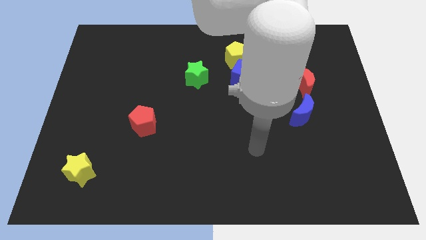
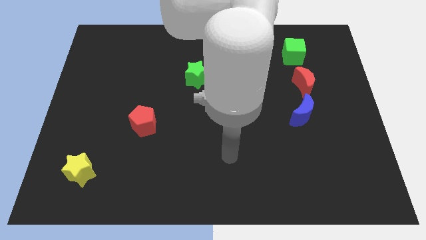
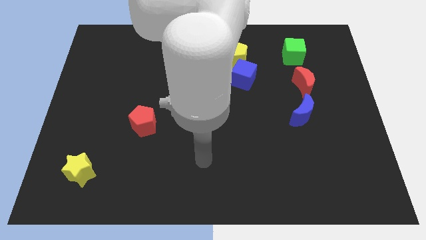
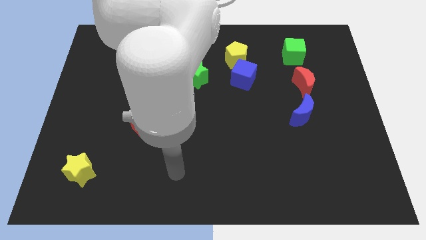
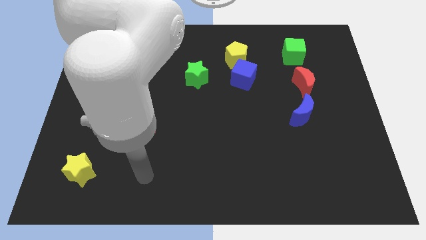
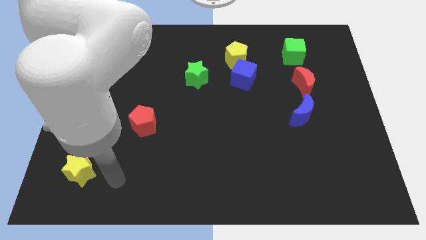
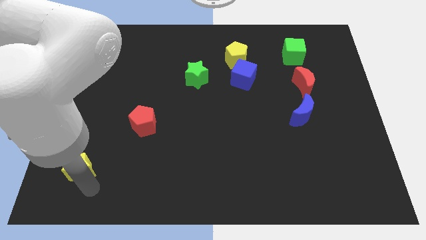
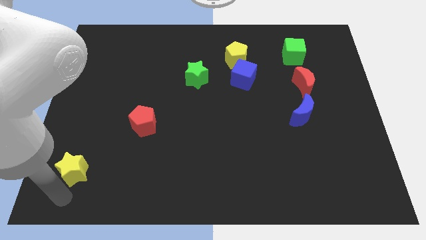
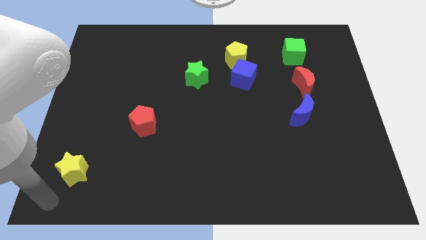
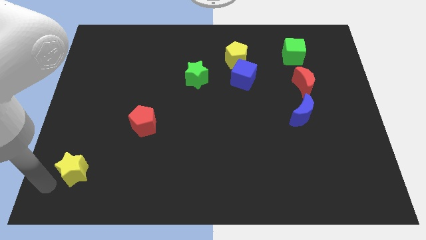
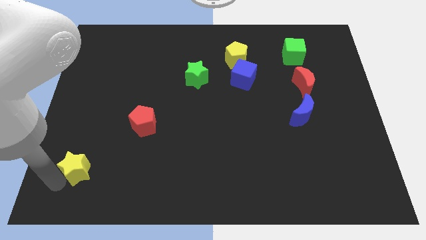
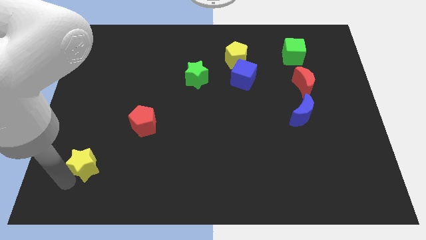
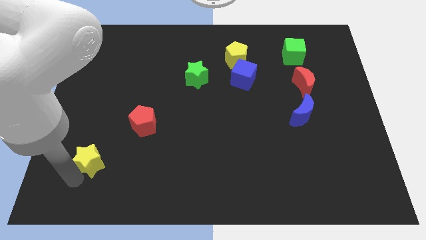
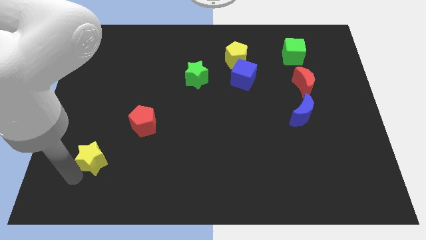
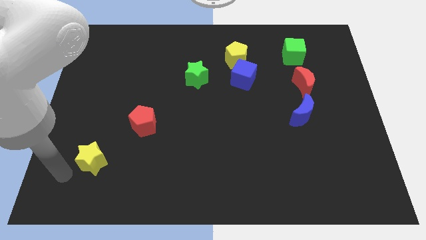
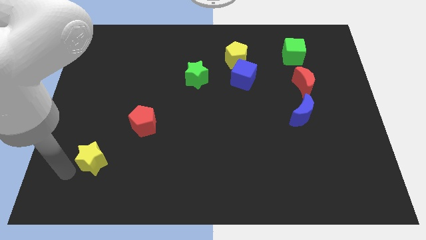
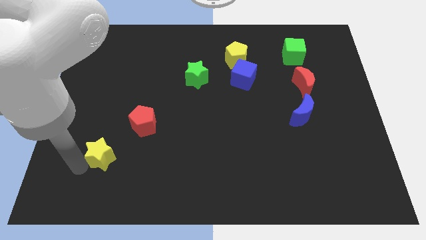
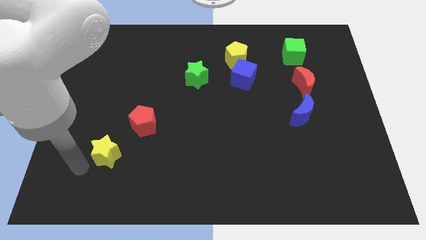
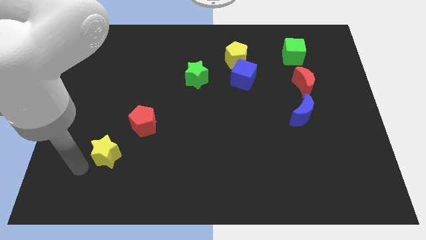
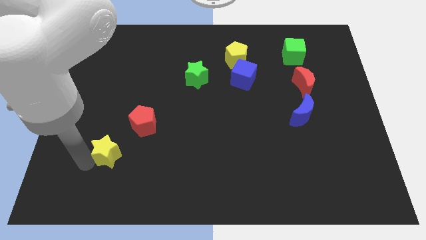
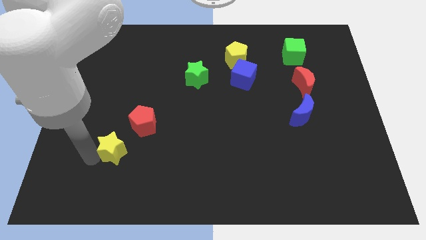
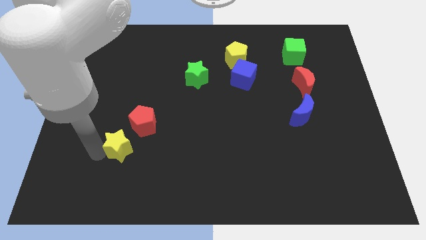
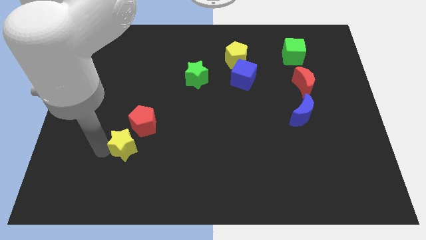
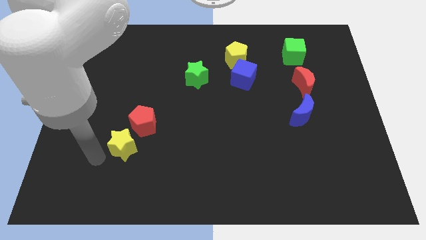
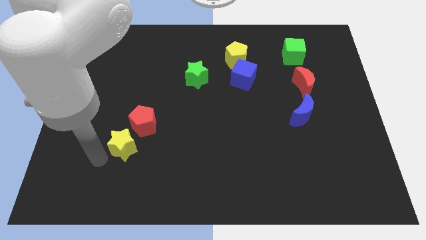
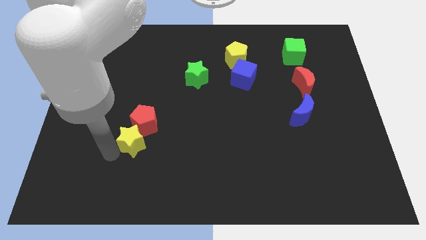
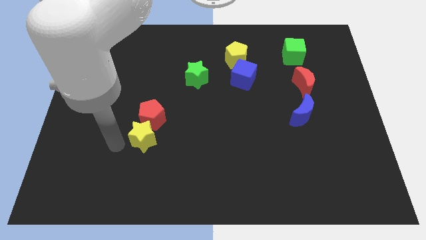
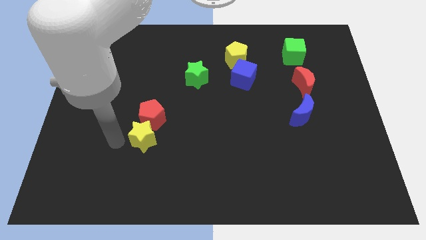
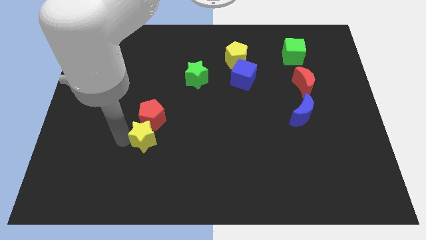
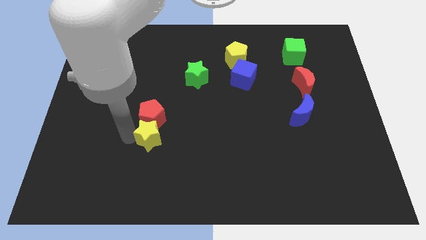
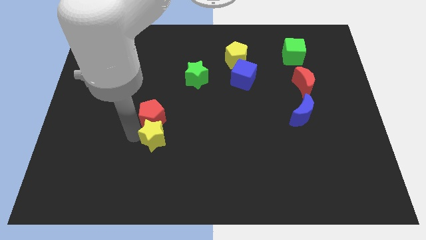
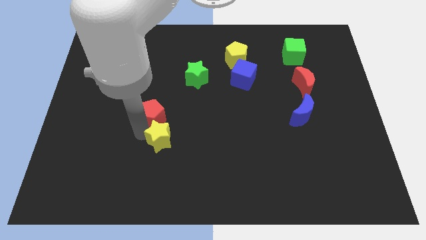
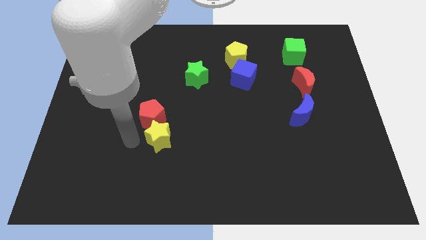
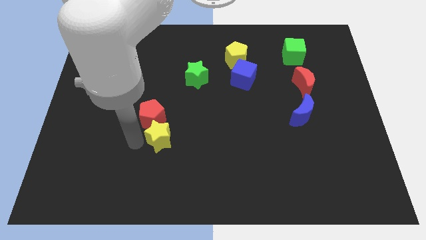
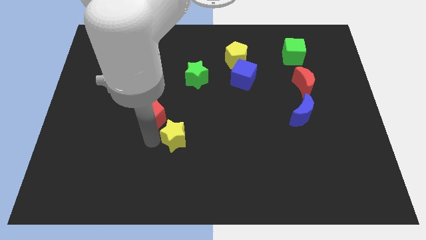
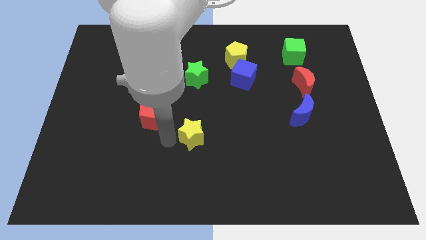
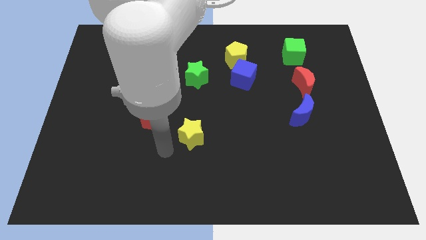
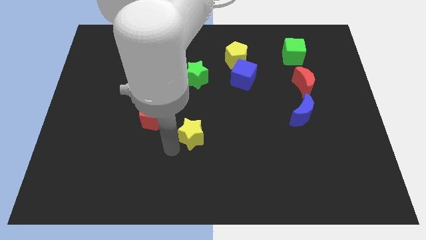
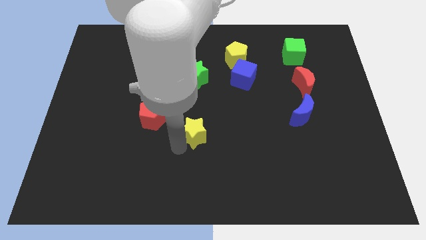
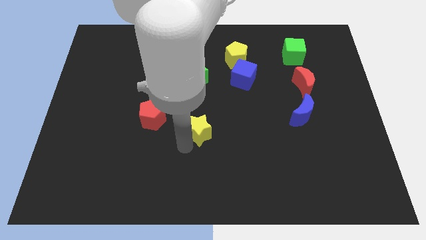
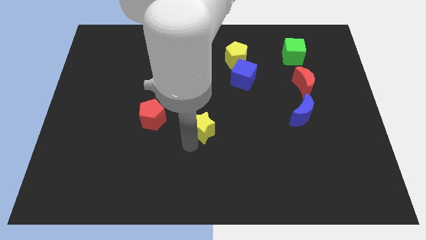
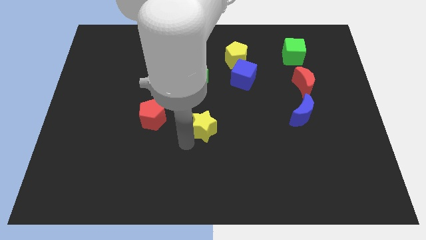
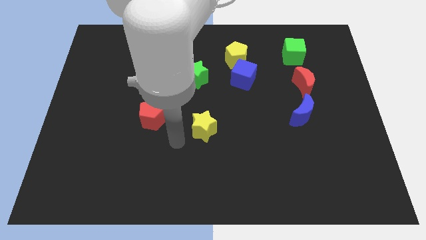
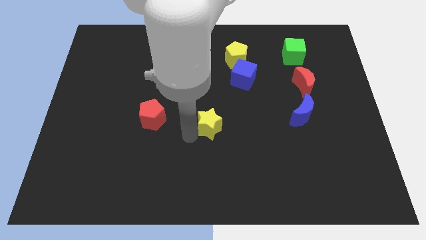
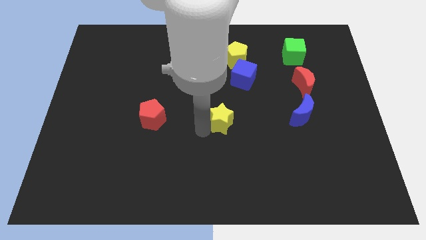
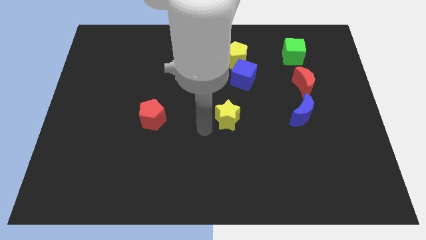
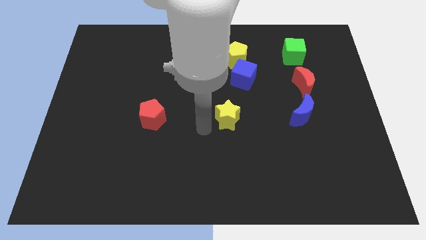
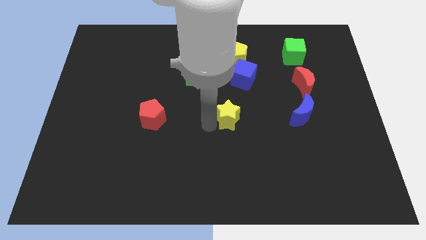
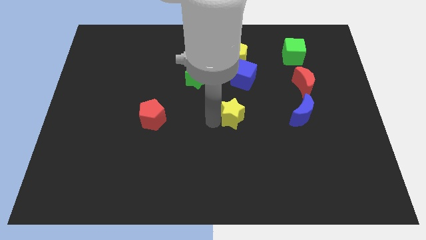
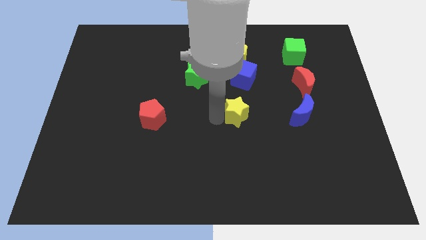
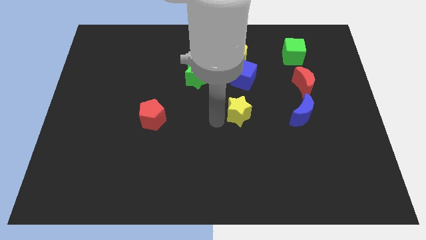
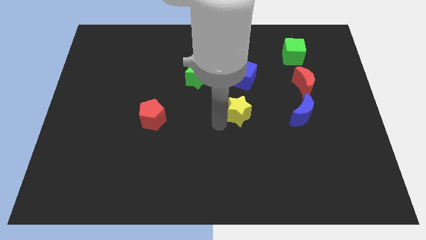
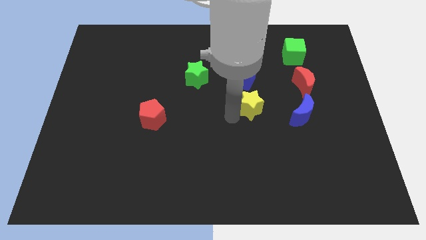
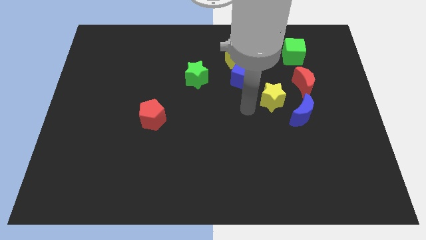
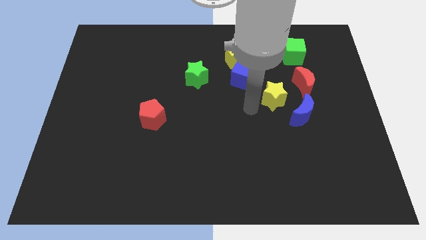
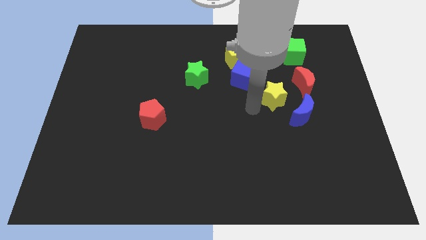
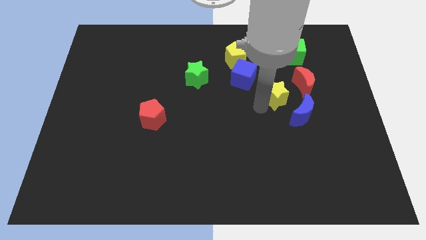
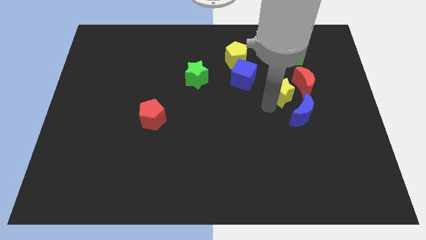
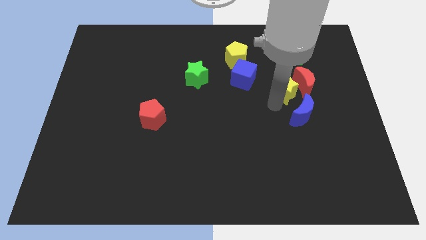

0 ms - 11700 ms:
push the yellow star to the red moon

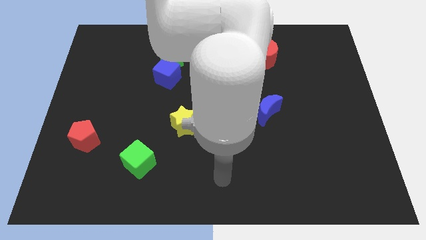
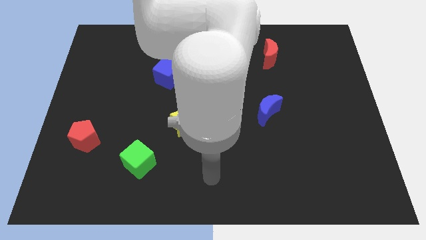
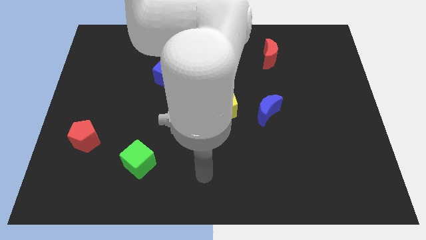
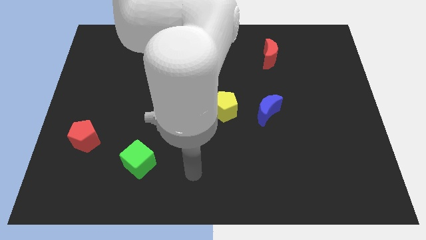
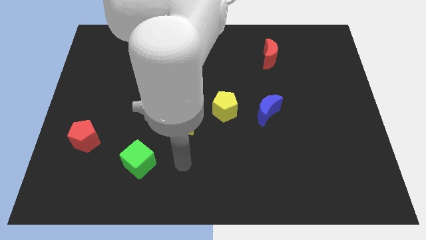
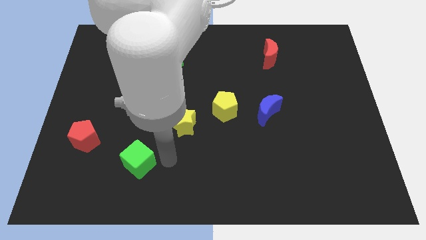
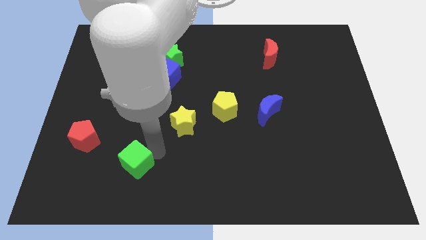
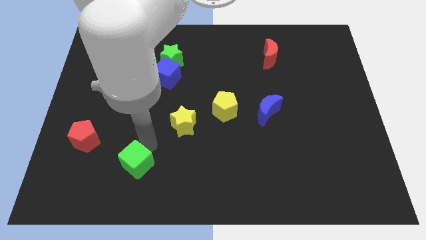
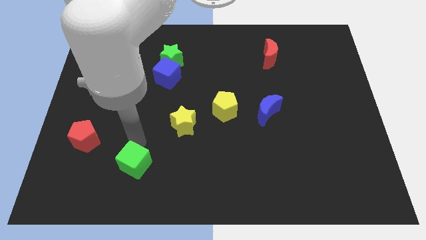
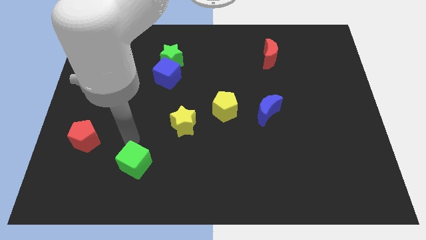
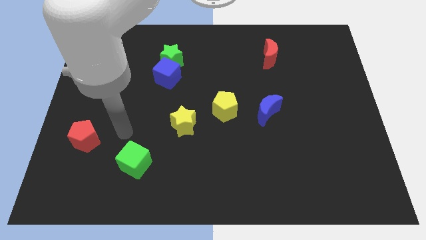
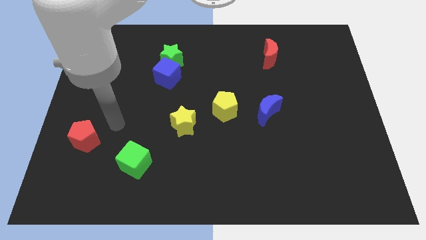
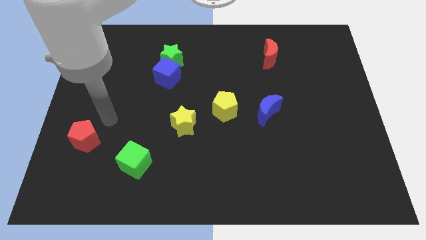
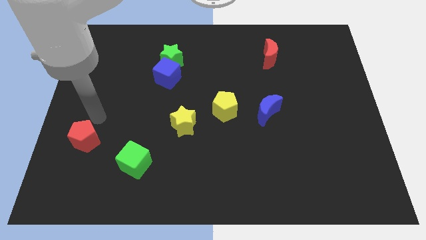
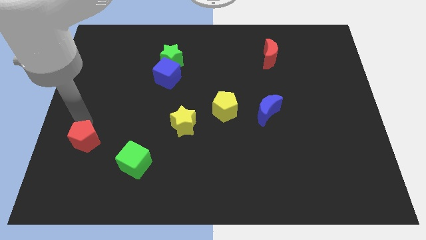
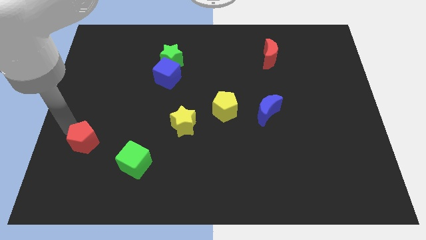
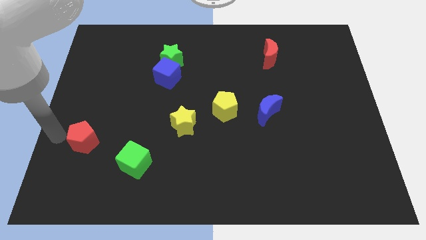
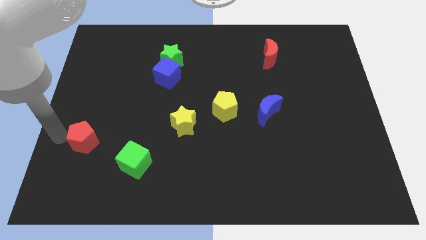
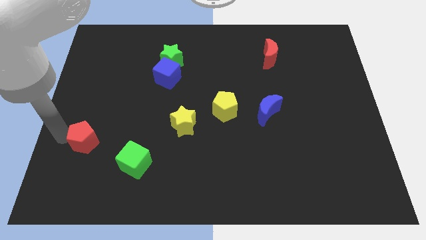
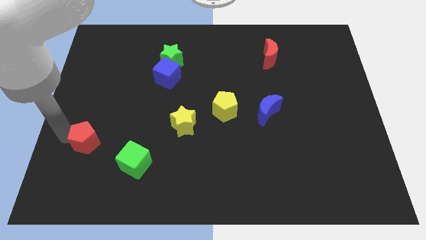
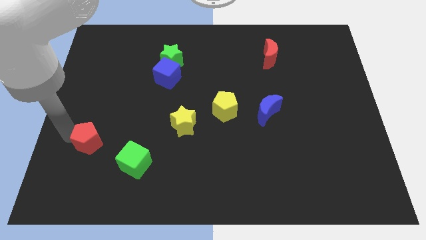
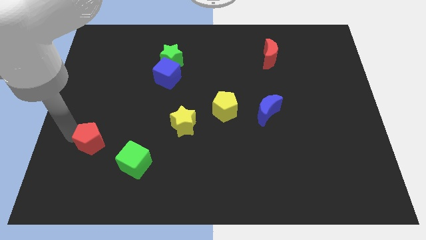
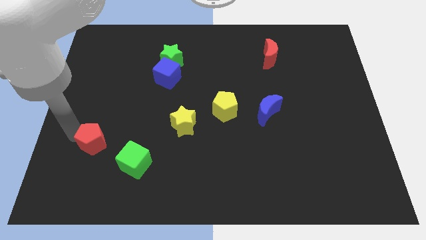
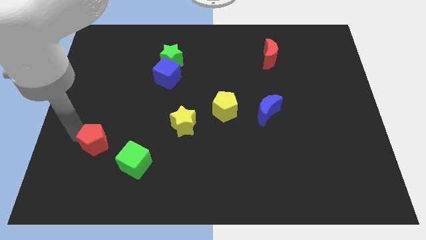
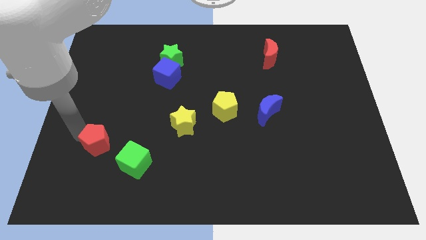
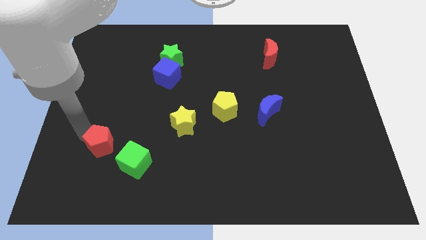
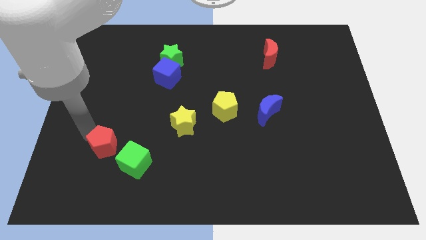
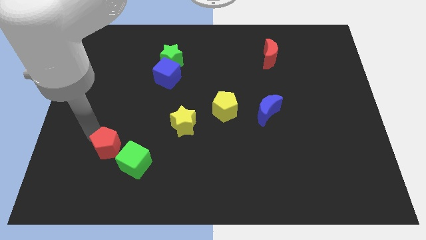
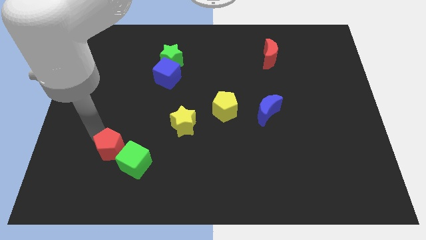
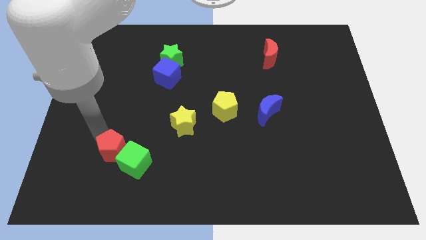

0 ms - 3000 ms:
slide the red pentagon close to the green cube
